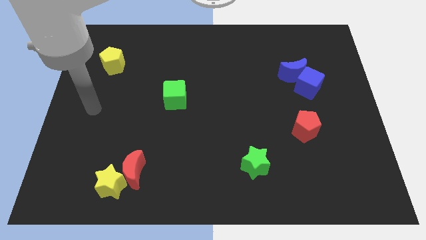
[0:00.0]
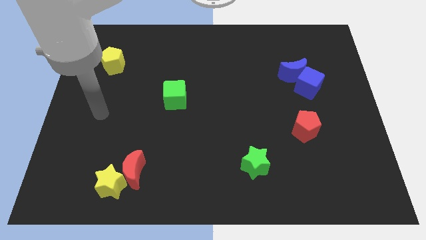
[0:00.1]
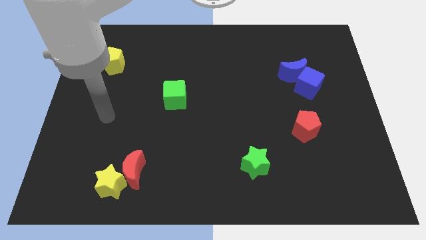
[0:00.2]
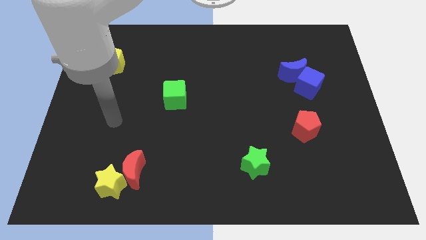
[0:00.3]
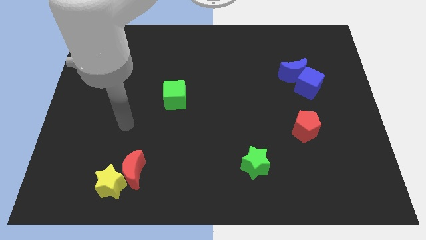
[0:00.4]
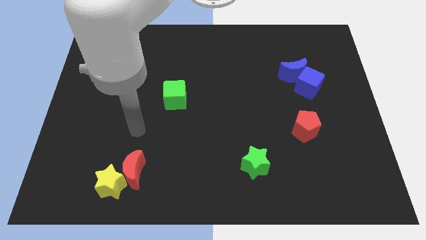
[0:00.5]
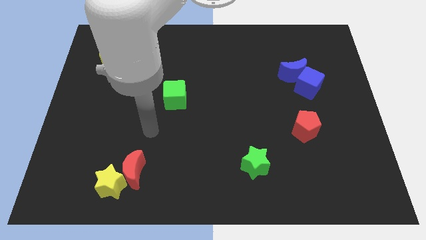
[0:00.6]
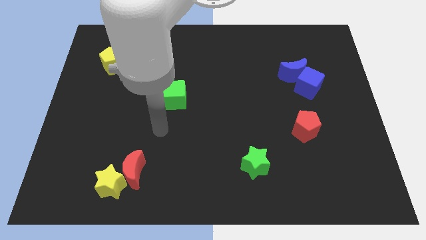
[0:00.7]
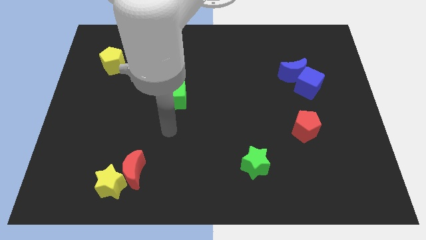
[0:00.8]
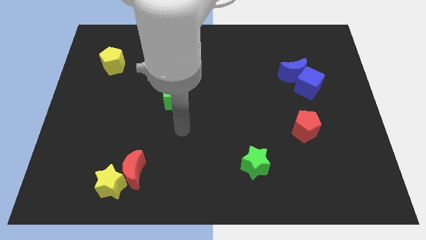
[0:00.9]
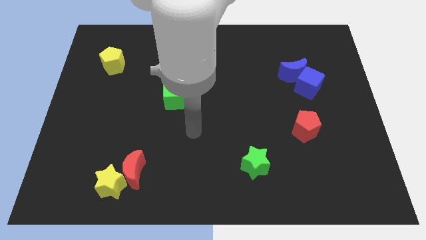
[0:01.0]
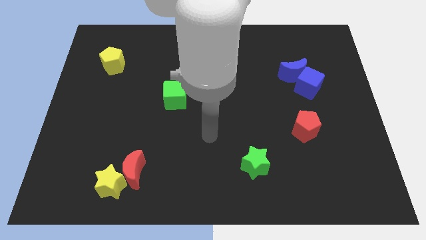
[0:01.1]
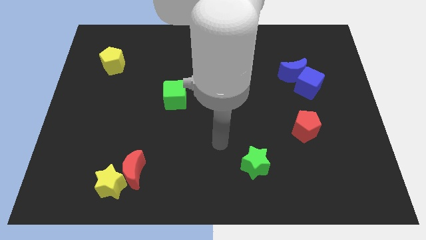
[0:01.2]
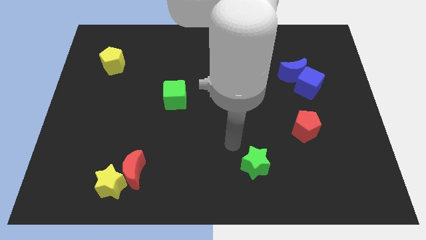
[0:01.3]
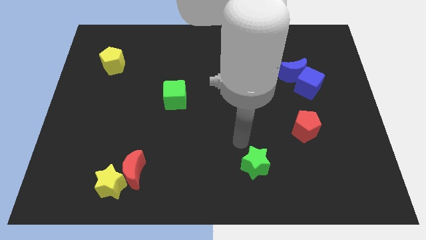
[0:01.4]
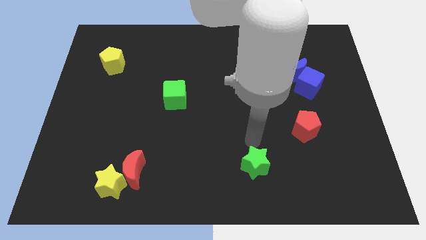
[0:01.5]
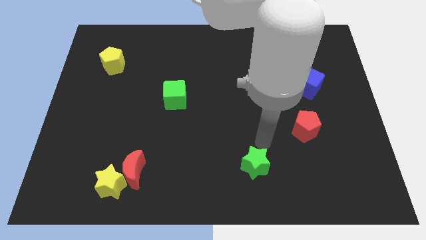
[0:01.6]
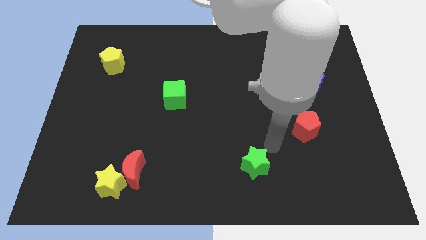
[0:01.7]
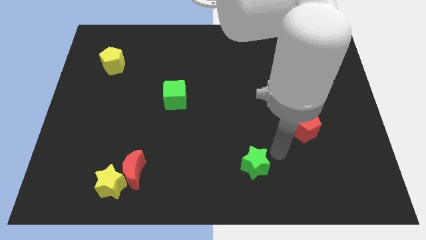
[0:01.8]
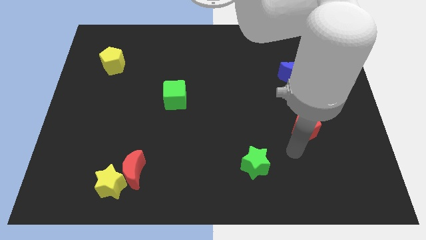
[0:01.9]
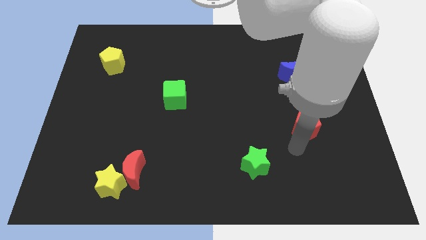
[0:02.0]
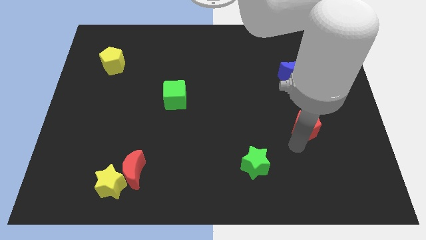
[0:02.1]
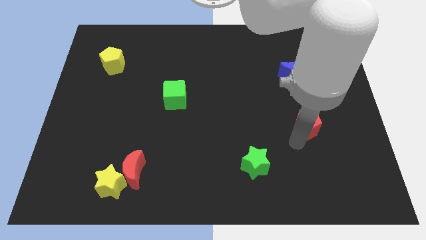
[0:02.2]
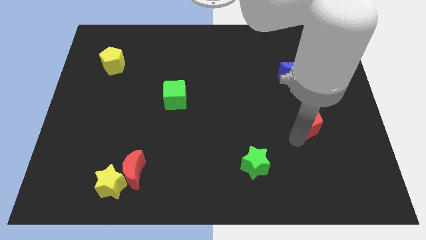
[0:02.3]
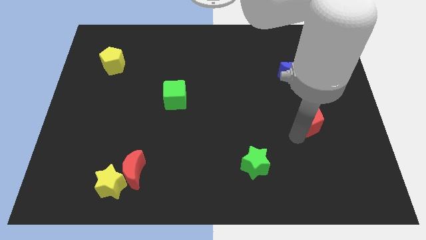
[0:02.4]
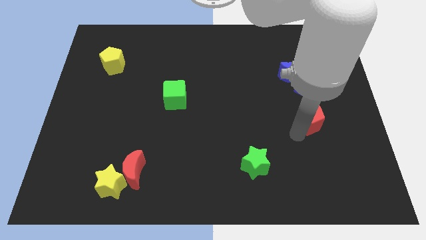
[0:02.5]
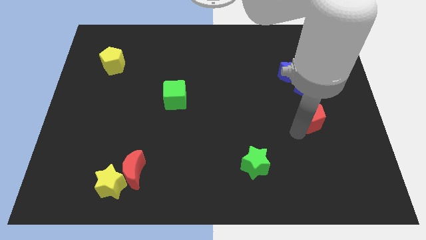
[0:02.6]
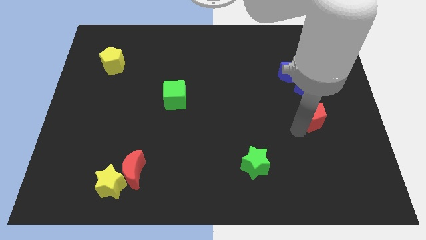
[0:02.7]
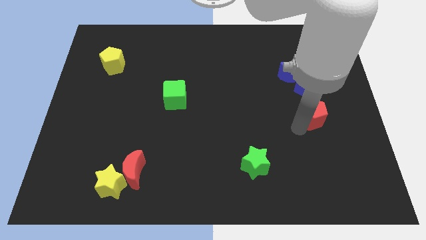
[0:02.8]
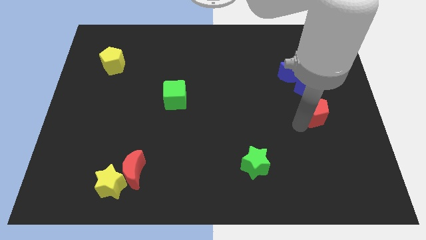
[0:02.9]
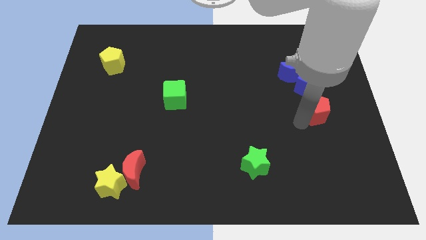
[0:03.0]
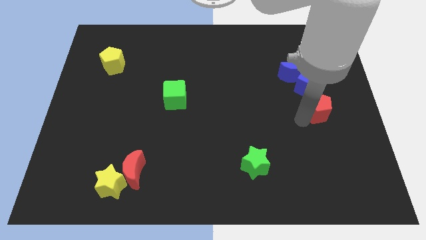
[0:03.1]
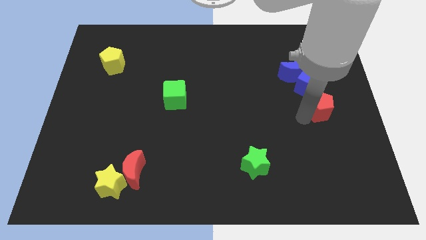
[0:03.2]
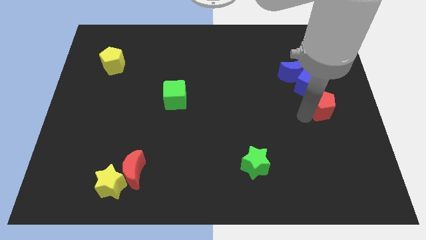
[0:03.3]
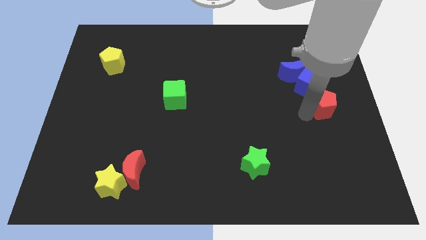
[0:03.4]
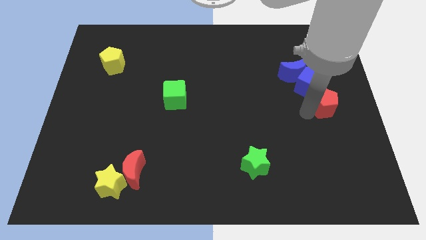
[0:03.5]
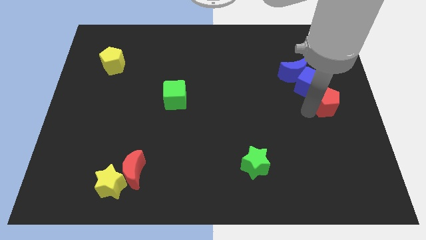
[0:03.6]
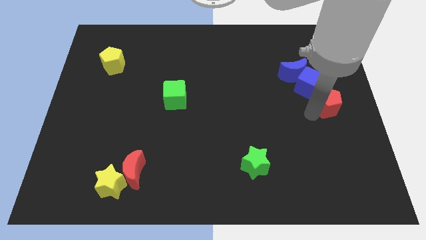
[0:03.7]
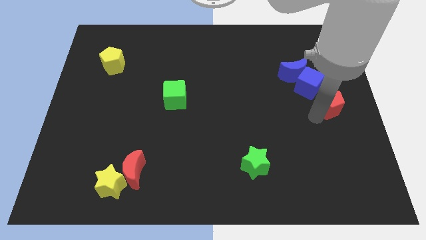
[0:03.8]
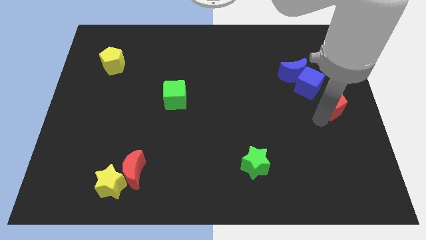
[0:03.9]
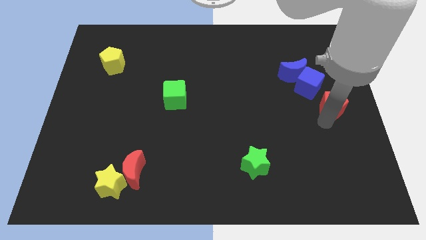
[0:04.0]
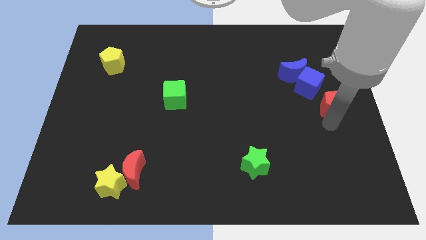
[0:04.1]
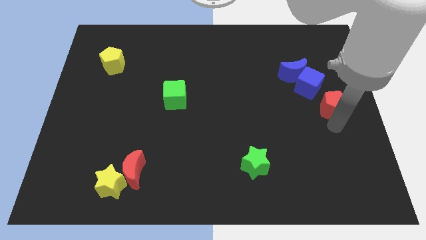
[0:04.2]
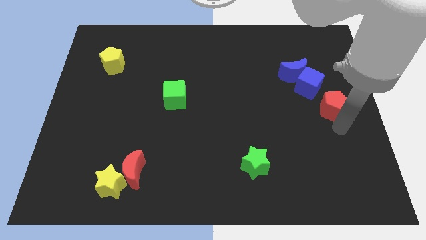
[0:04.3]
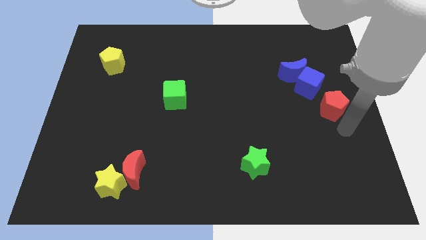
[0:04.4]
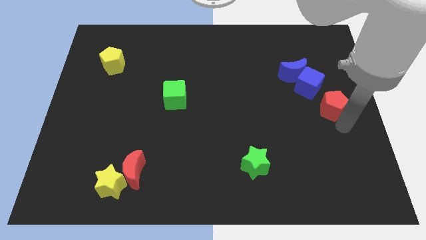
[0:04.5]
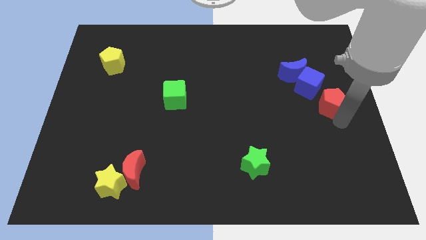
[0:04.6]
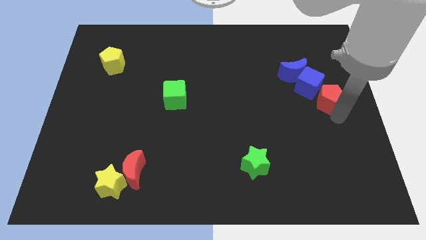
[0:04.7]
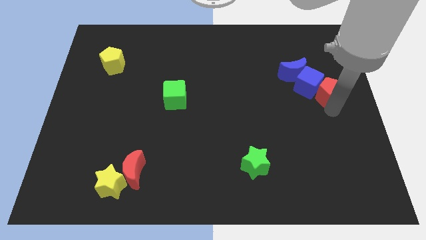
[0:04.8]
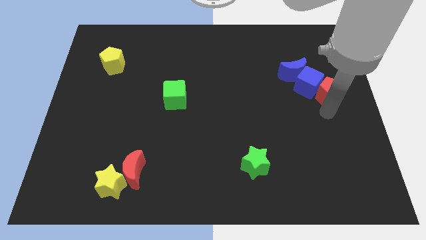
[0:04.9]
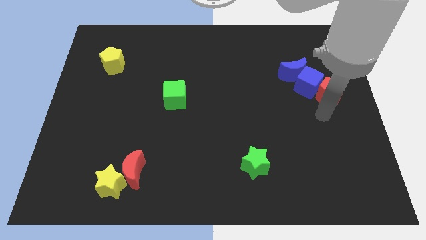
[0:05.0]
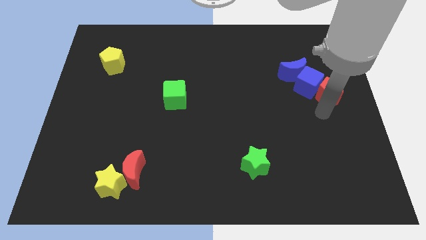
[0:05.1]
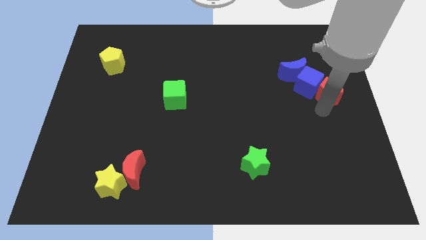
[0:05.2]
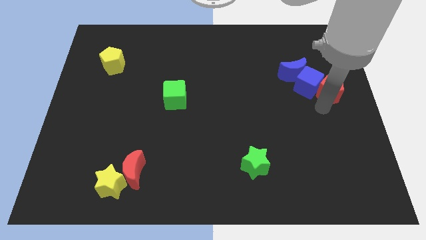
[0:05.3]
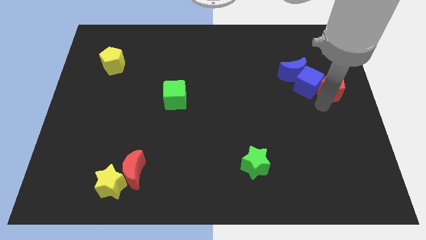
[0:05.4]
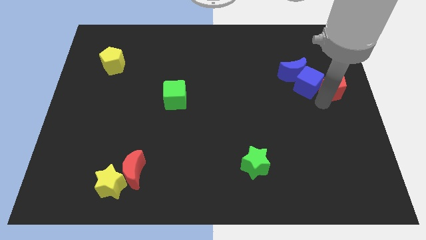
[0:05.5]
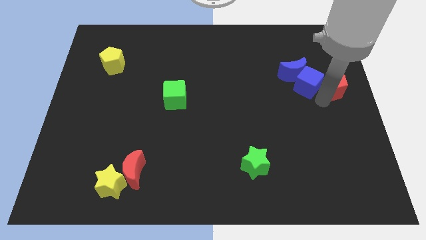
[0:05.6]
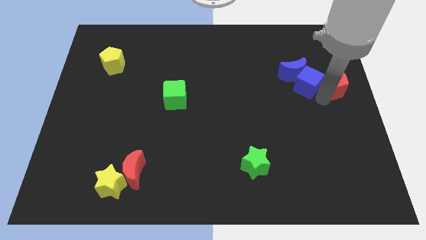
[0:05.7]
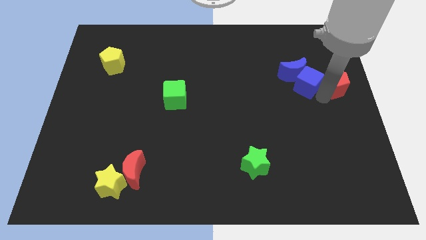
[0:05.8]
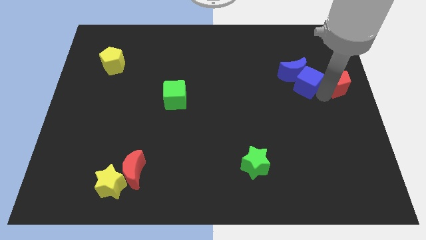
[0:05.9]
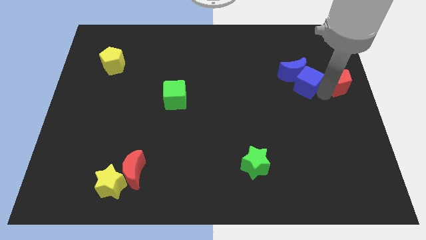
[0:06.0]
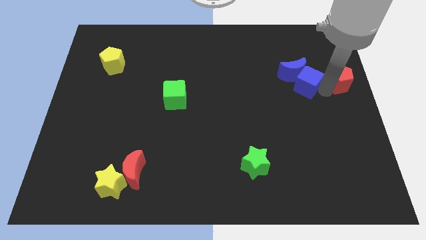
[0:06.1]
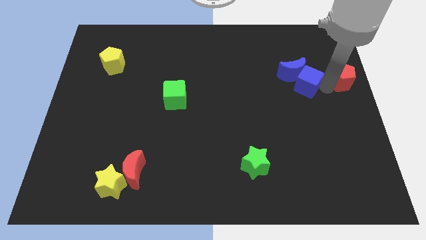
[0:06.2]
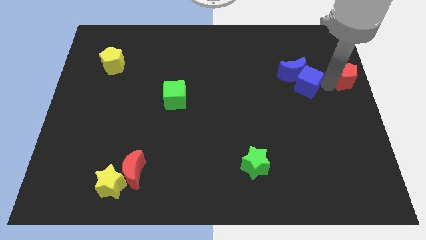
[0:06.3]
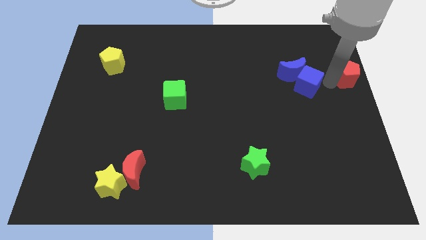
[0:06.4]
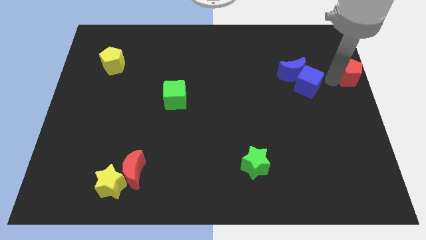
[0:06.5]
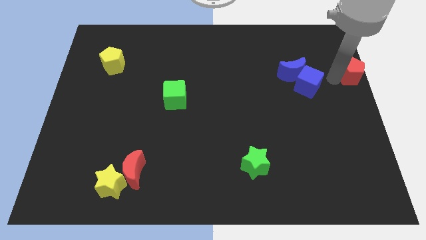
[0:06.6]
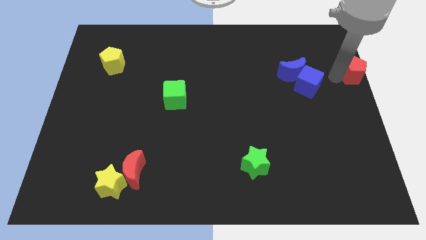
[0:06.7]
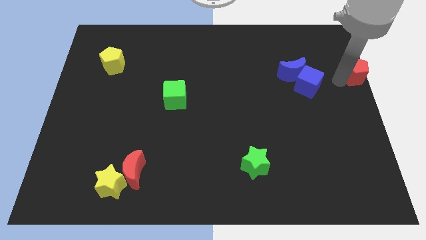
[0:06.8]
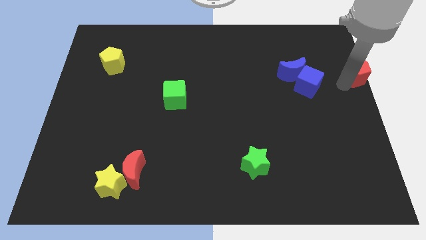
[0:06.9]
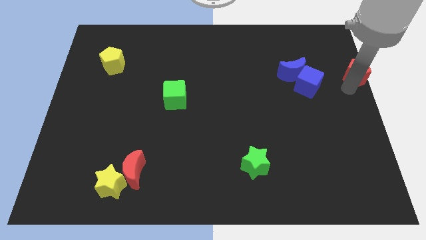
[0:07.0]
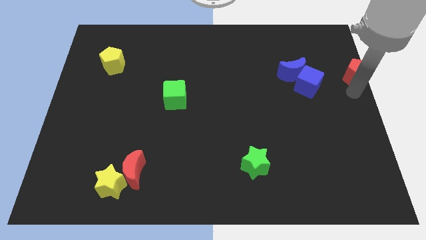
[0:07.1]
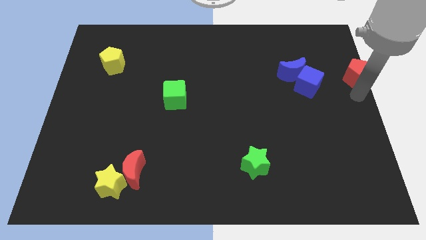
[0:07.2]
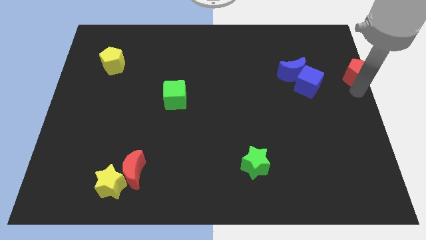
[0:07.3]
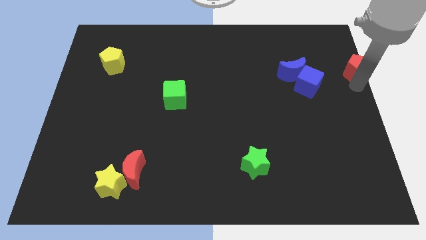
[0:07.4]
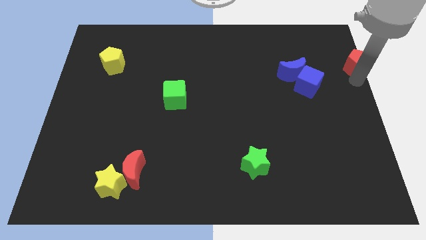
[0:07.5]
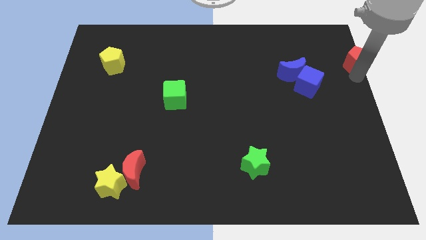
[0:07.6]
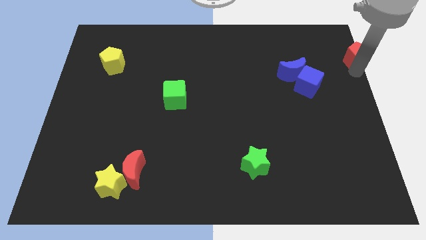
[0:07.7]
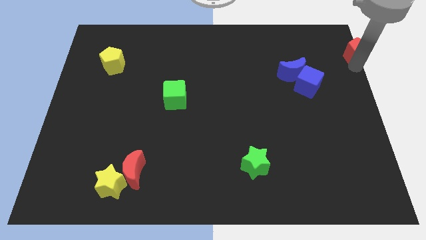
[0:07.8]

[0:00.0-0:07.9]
put the red pentagon to the top right
